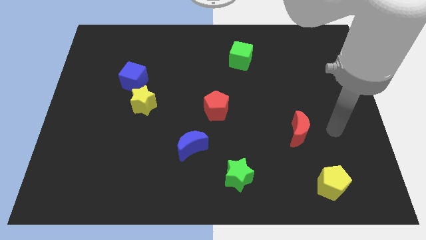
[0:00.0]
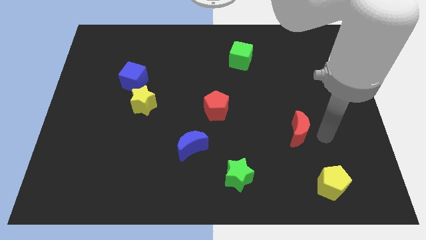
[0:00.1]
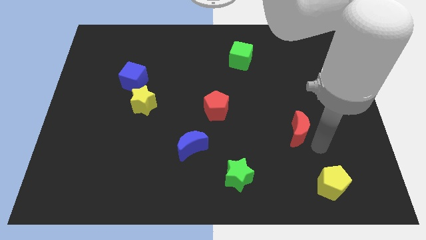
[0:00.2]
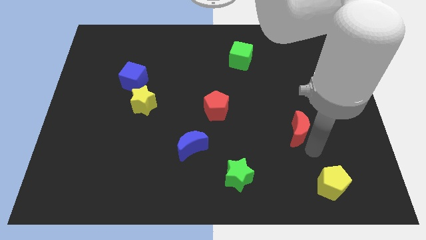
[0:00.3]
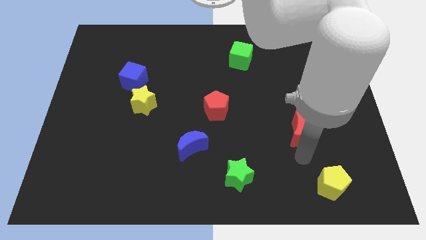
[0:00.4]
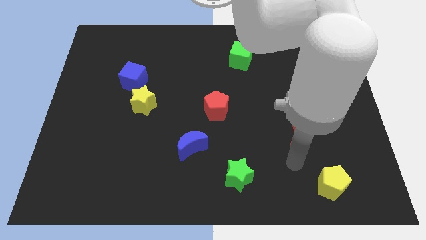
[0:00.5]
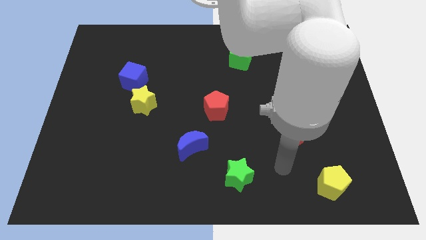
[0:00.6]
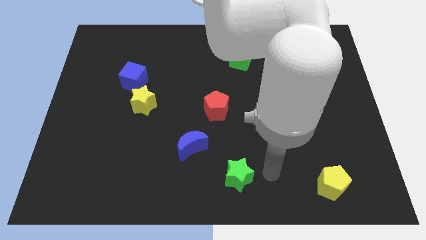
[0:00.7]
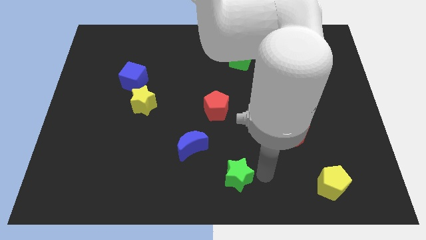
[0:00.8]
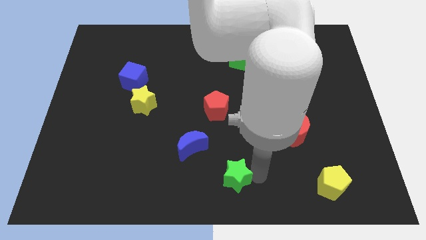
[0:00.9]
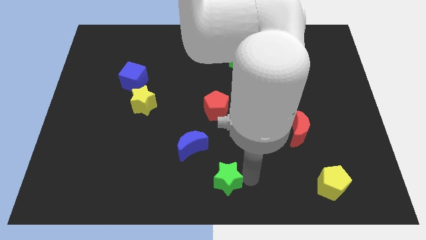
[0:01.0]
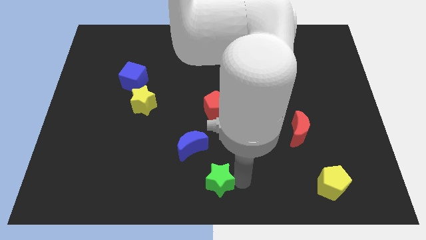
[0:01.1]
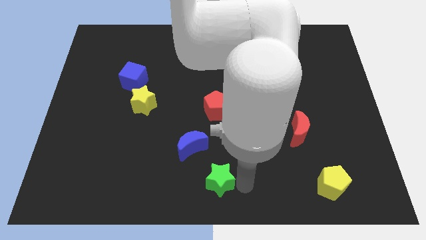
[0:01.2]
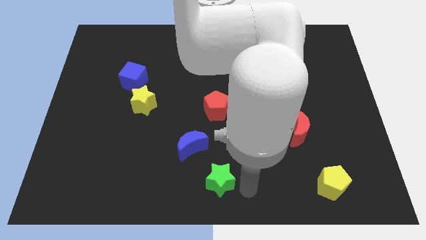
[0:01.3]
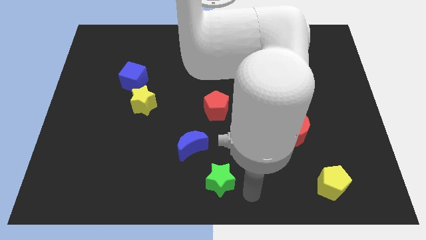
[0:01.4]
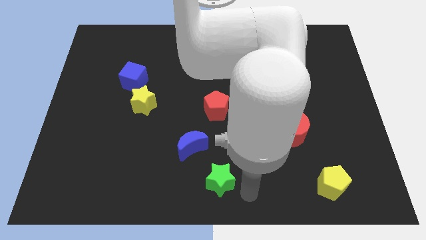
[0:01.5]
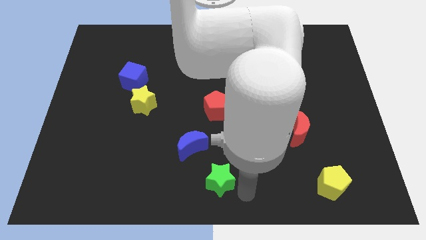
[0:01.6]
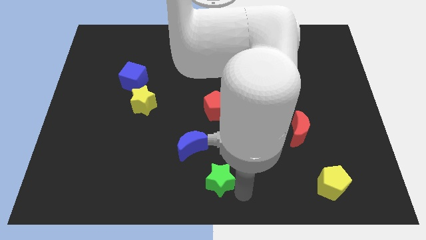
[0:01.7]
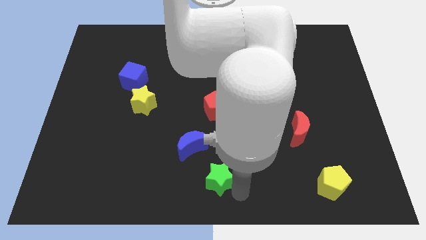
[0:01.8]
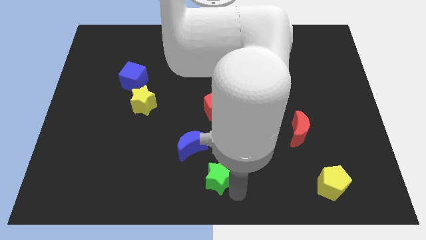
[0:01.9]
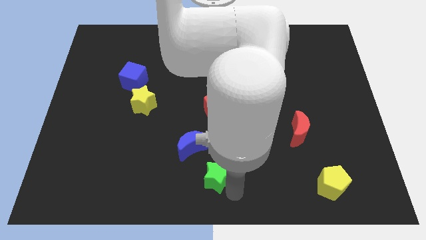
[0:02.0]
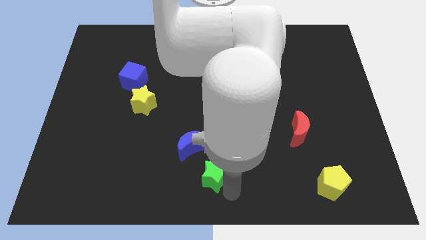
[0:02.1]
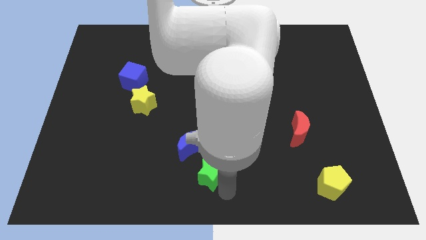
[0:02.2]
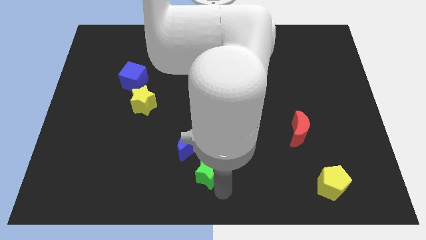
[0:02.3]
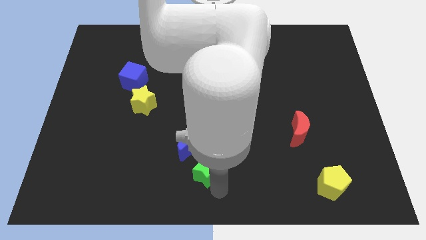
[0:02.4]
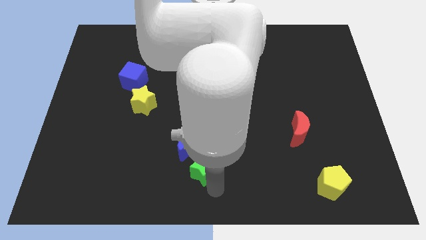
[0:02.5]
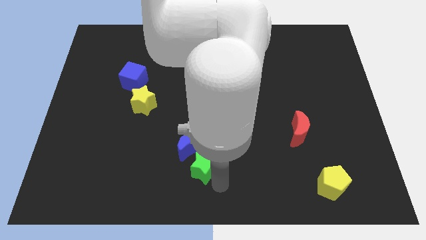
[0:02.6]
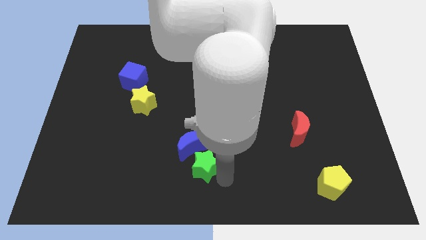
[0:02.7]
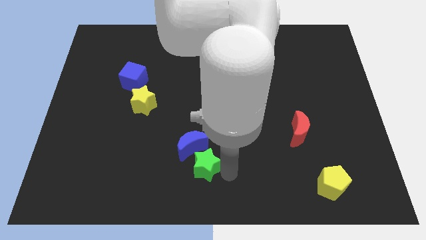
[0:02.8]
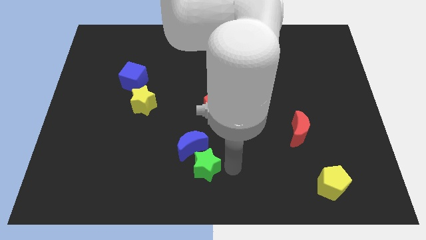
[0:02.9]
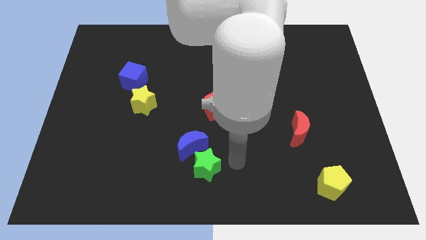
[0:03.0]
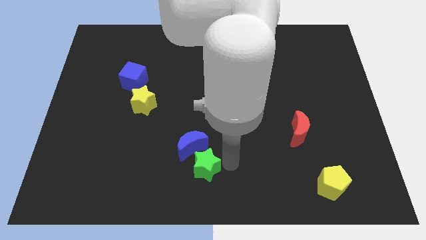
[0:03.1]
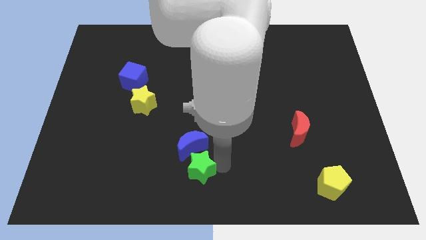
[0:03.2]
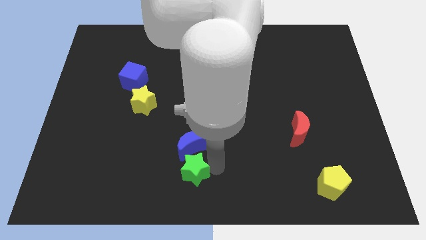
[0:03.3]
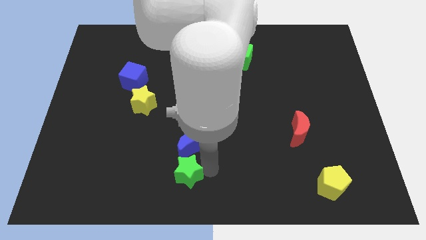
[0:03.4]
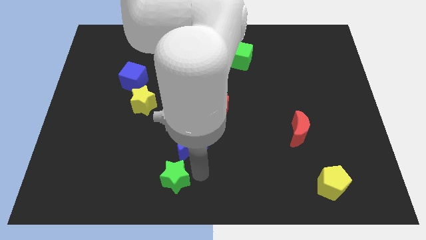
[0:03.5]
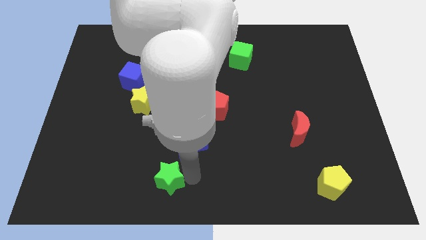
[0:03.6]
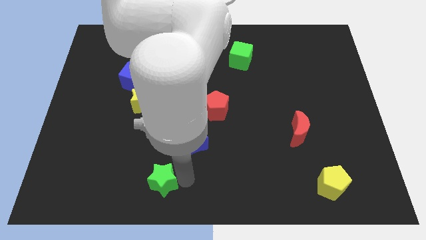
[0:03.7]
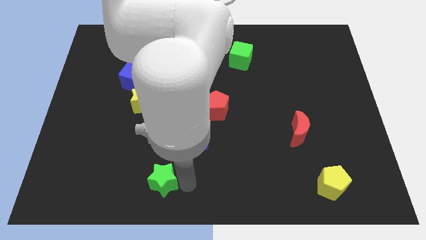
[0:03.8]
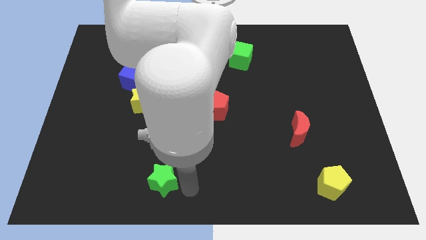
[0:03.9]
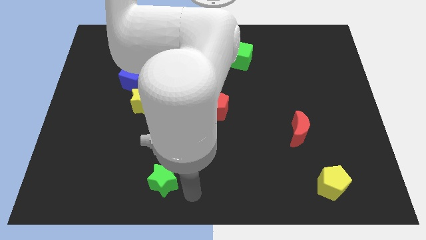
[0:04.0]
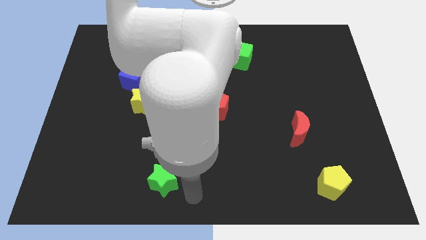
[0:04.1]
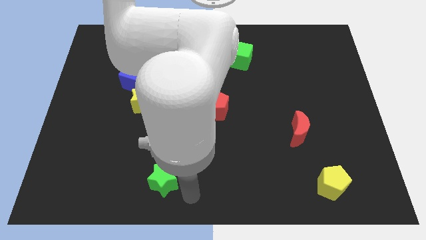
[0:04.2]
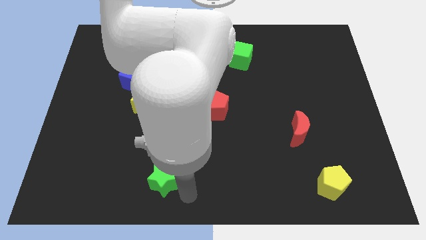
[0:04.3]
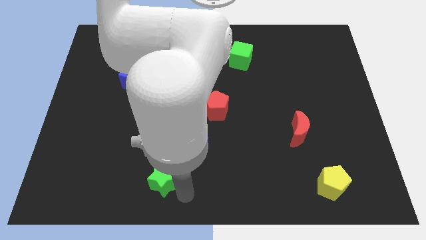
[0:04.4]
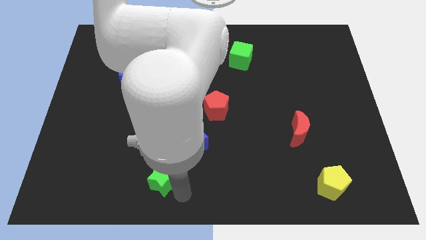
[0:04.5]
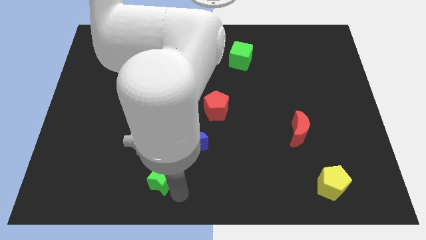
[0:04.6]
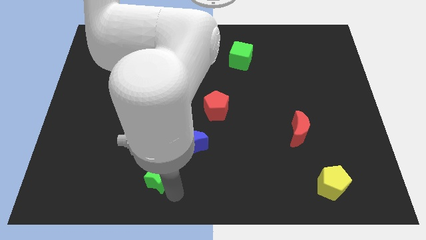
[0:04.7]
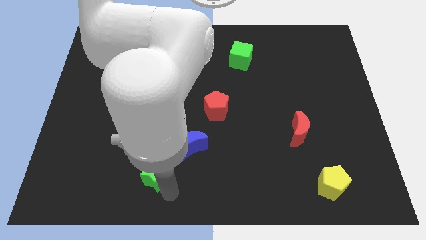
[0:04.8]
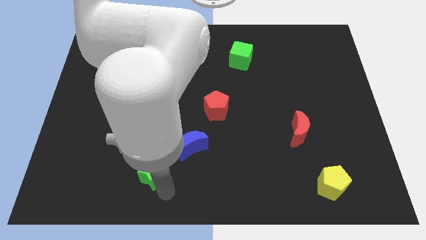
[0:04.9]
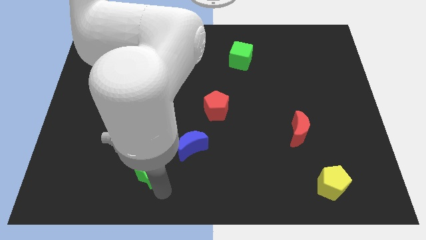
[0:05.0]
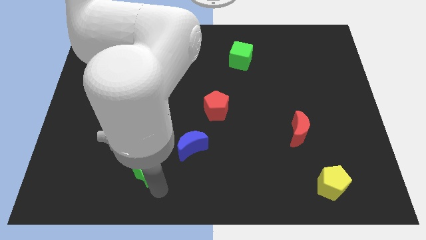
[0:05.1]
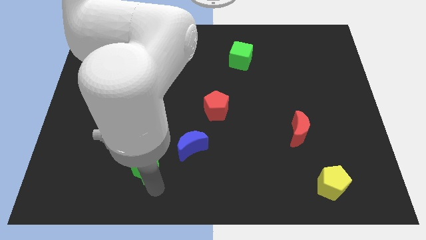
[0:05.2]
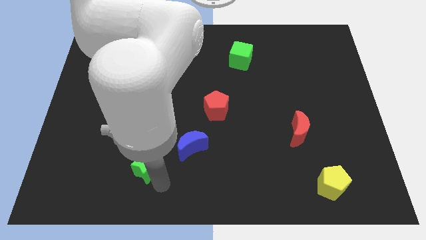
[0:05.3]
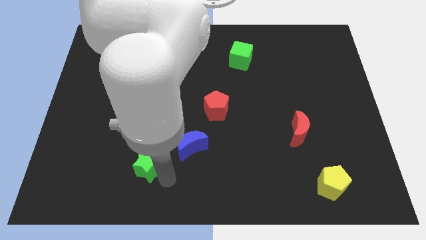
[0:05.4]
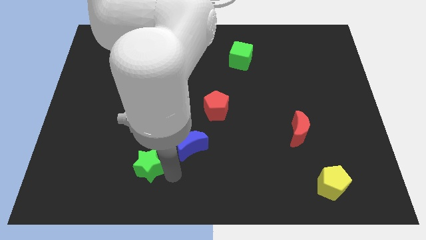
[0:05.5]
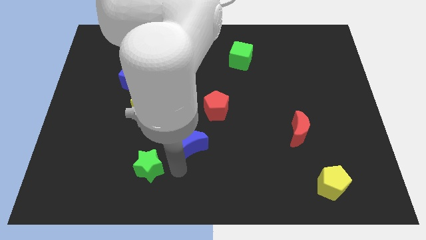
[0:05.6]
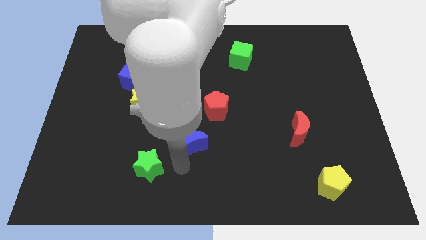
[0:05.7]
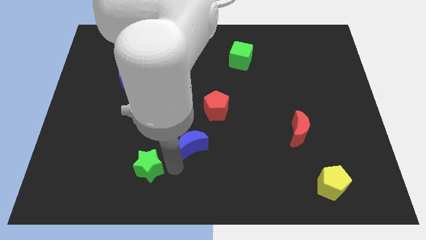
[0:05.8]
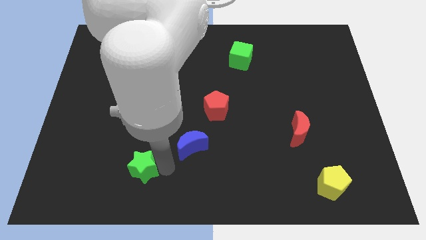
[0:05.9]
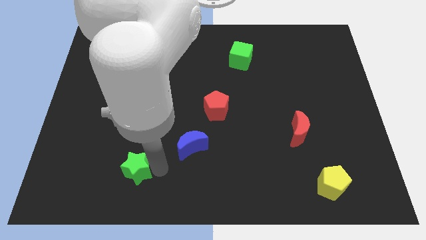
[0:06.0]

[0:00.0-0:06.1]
push the green star left

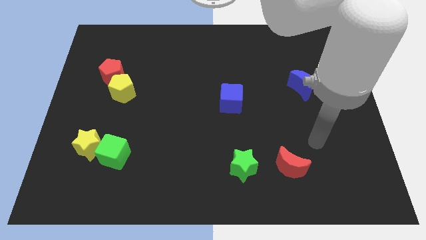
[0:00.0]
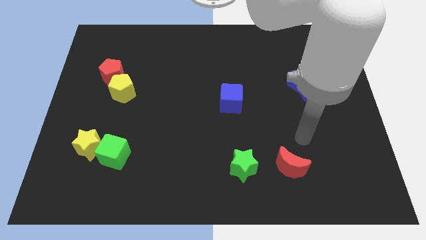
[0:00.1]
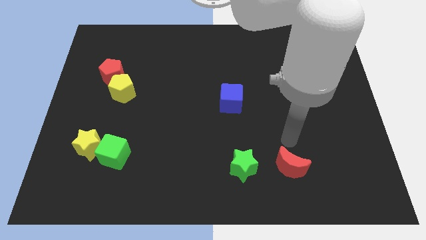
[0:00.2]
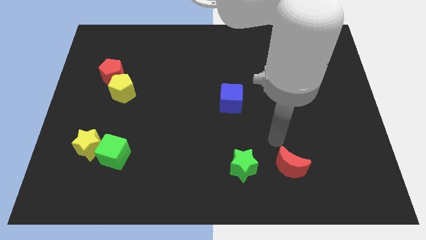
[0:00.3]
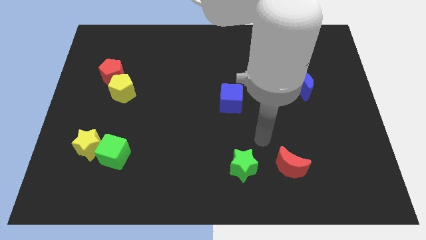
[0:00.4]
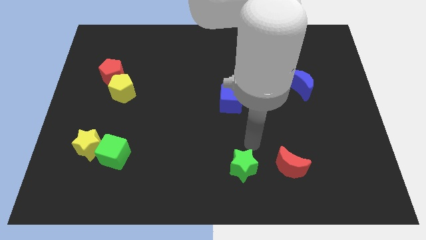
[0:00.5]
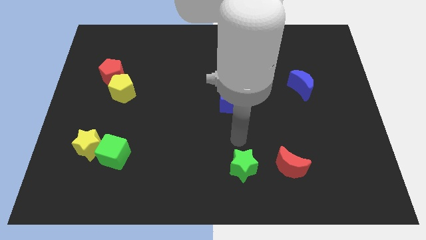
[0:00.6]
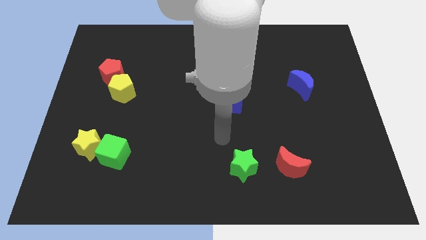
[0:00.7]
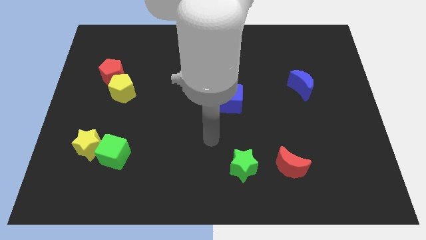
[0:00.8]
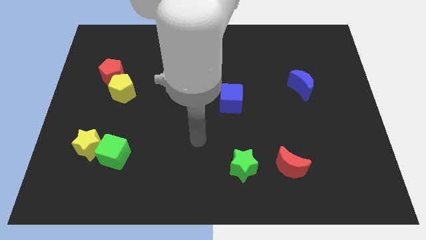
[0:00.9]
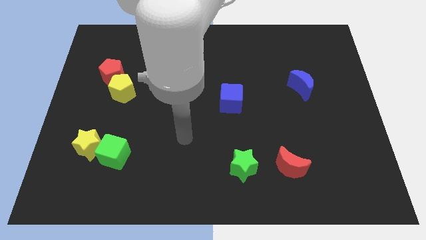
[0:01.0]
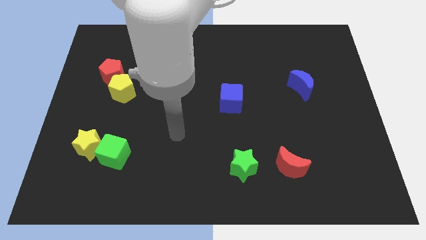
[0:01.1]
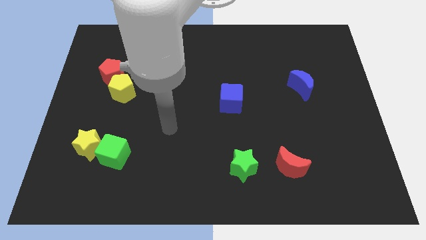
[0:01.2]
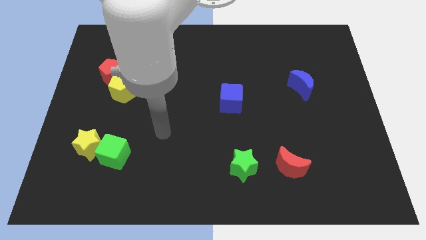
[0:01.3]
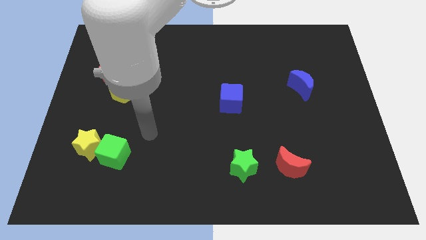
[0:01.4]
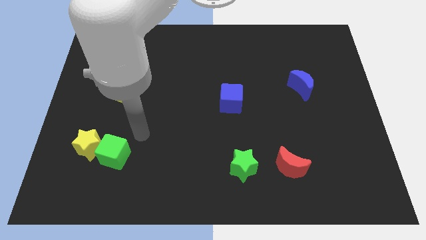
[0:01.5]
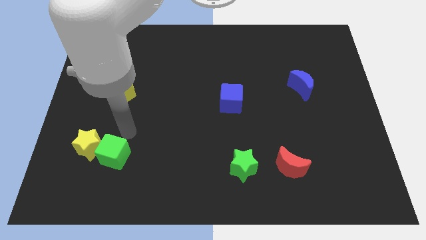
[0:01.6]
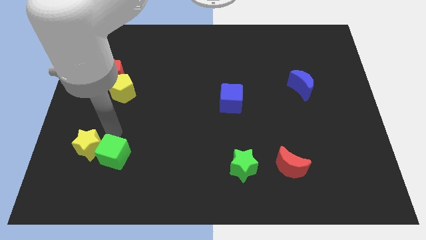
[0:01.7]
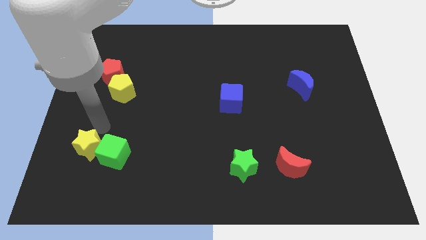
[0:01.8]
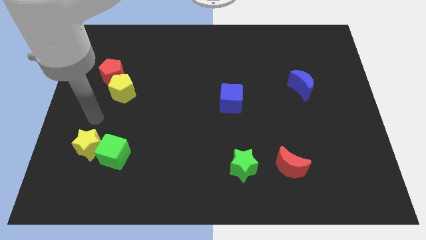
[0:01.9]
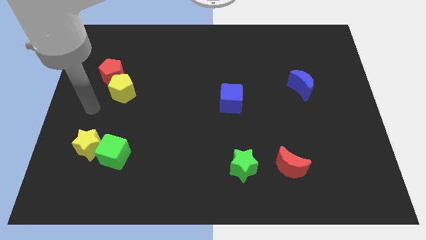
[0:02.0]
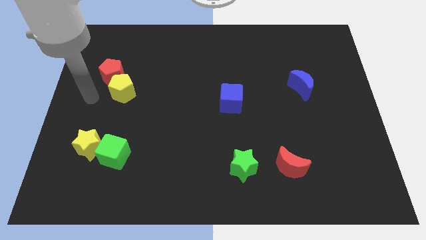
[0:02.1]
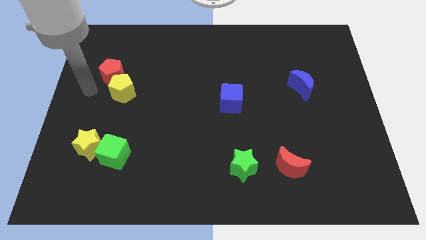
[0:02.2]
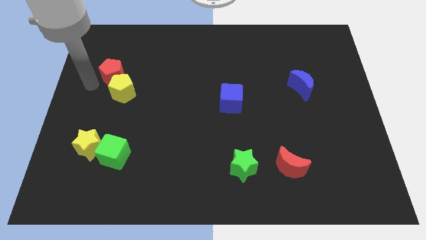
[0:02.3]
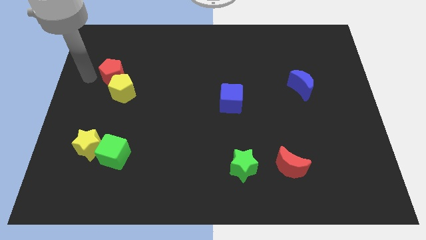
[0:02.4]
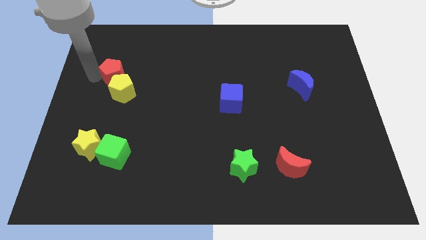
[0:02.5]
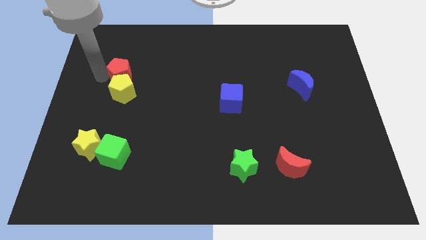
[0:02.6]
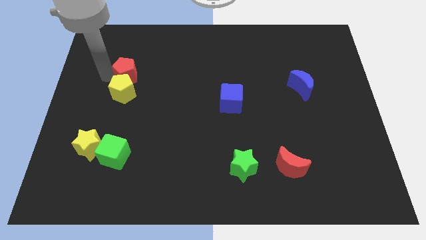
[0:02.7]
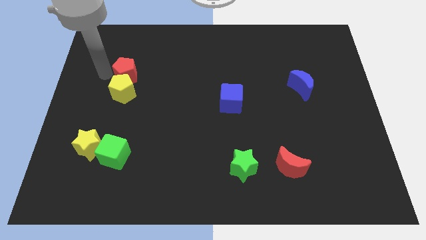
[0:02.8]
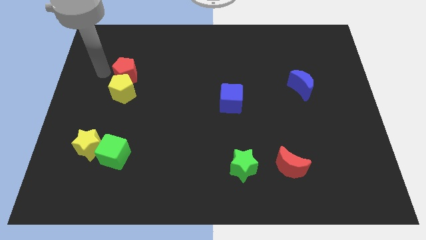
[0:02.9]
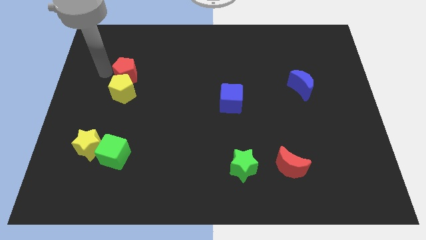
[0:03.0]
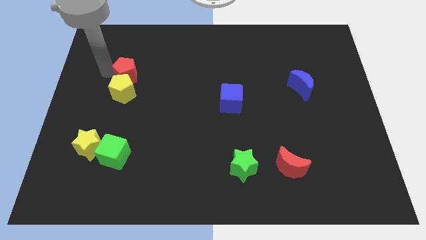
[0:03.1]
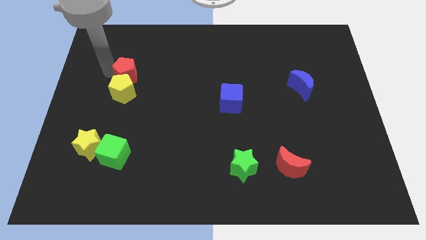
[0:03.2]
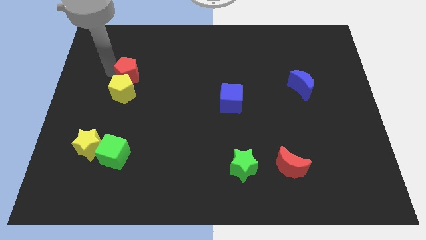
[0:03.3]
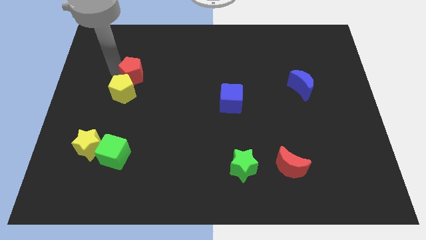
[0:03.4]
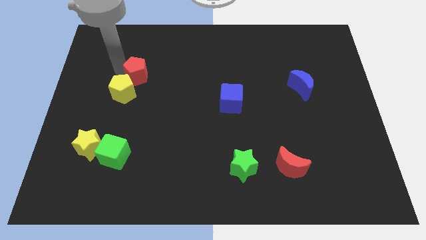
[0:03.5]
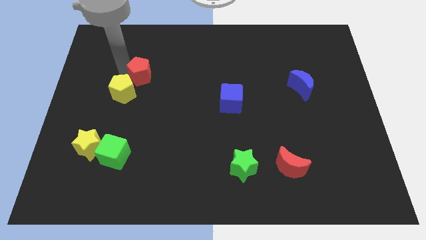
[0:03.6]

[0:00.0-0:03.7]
move the red pentagon a little bit right
